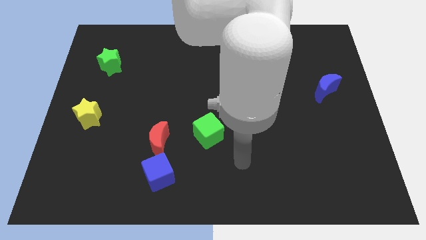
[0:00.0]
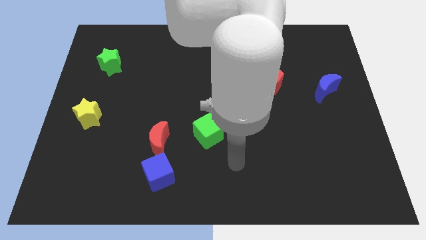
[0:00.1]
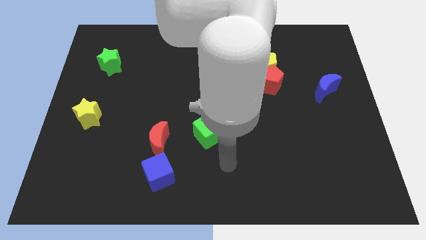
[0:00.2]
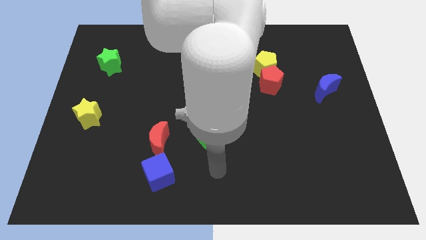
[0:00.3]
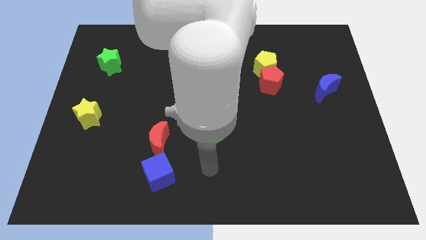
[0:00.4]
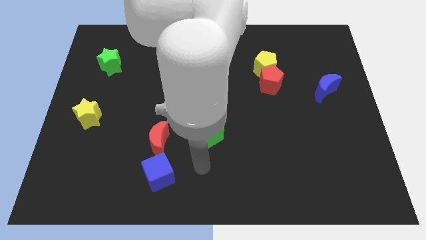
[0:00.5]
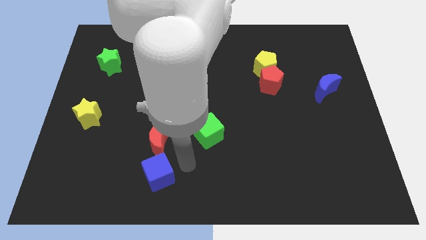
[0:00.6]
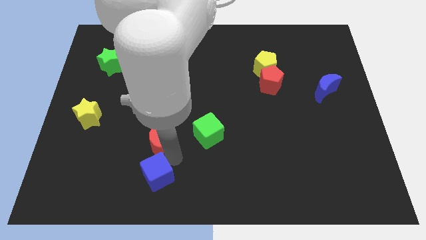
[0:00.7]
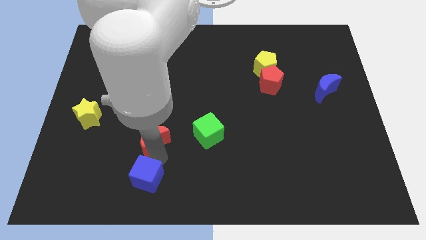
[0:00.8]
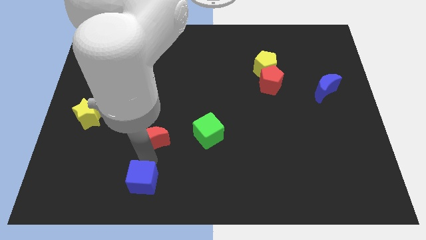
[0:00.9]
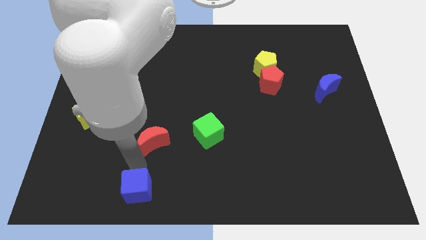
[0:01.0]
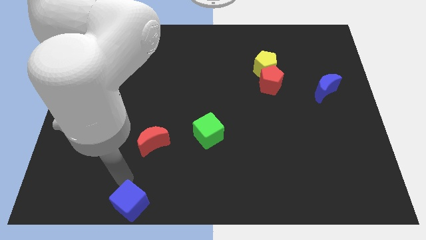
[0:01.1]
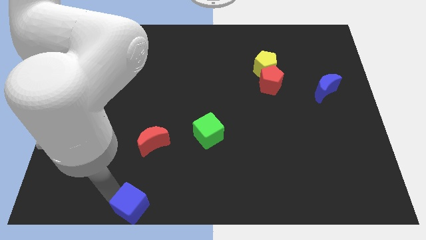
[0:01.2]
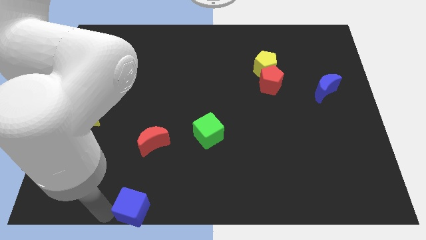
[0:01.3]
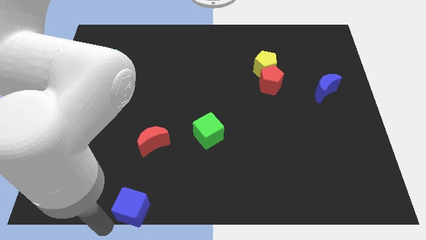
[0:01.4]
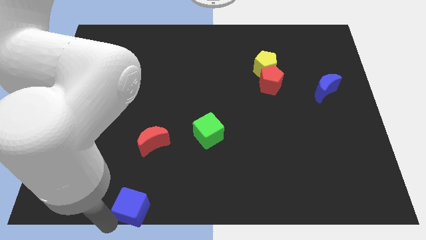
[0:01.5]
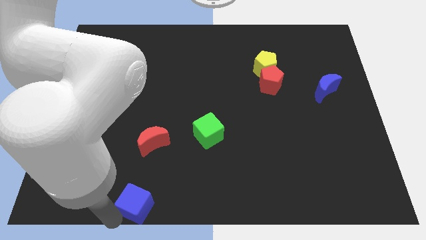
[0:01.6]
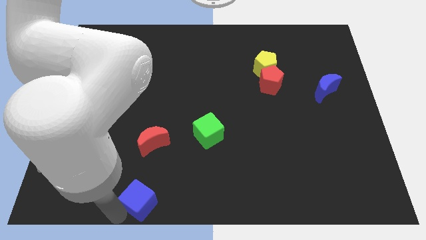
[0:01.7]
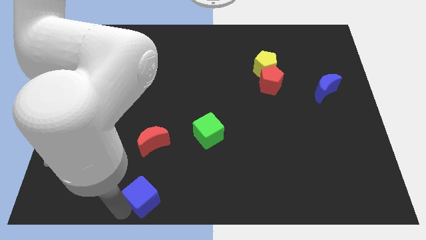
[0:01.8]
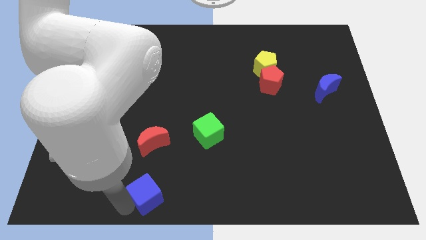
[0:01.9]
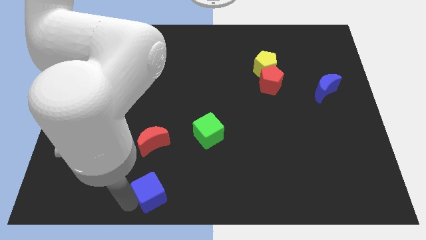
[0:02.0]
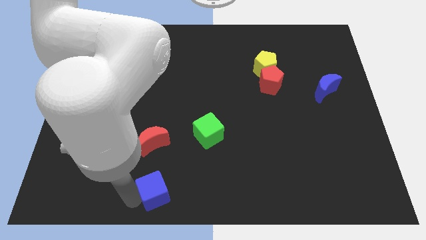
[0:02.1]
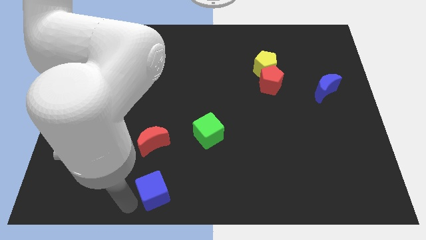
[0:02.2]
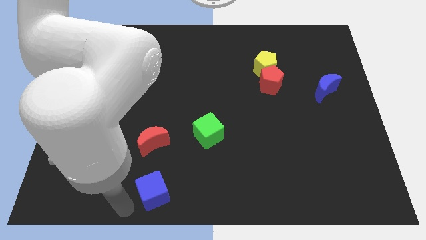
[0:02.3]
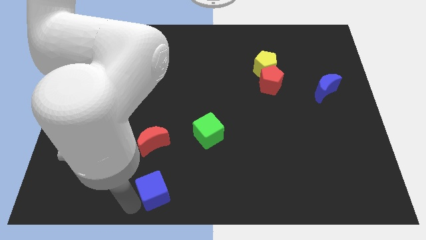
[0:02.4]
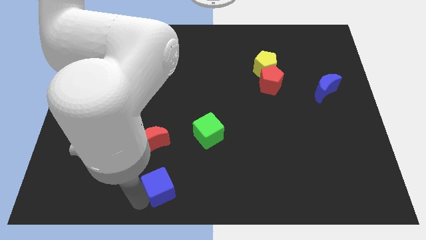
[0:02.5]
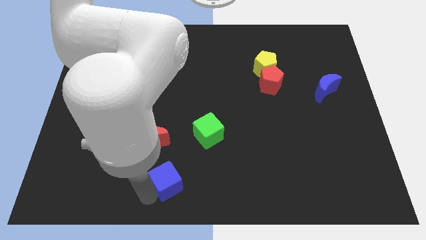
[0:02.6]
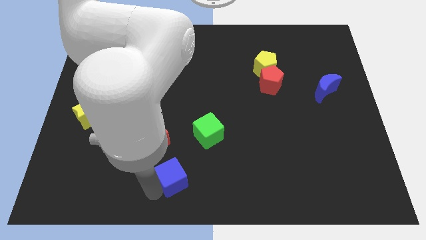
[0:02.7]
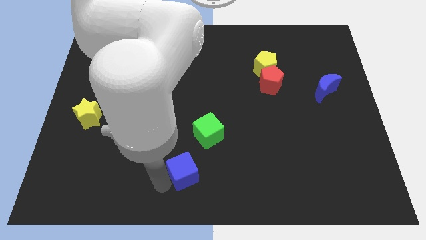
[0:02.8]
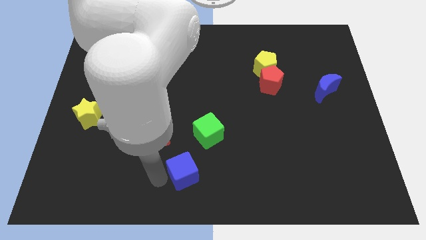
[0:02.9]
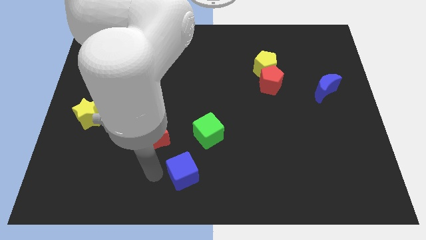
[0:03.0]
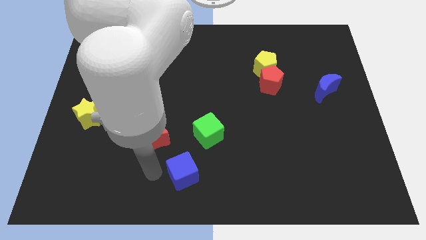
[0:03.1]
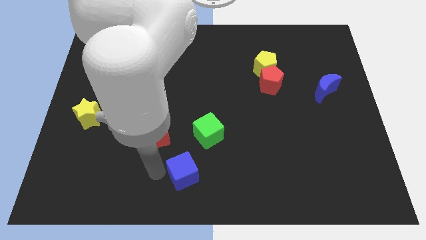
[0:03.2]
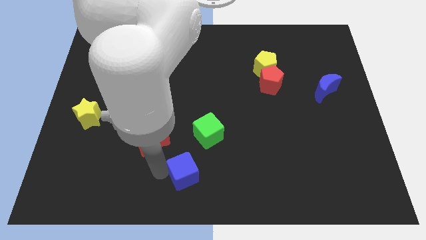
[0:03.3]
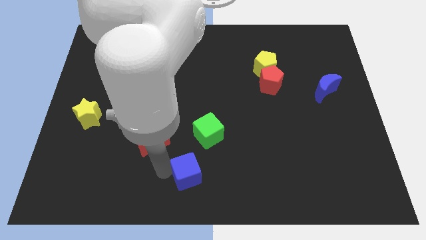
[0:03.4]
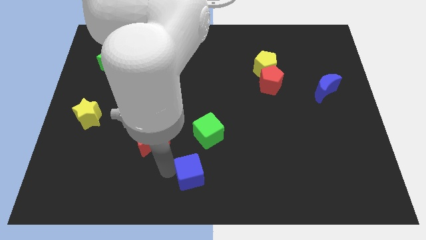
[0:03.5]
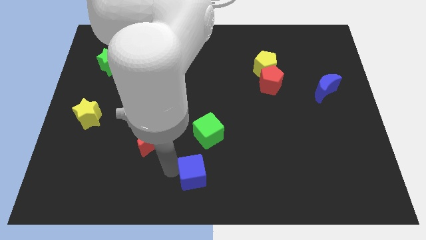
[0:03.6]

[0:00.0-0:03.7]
slightly push the blue cube right

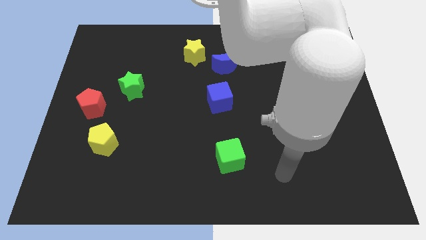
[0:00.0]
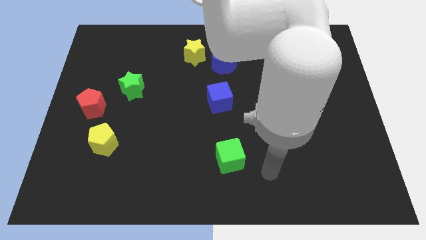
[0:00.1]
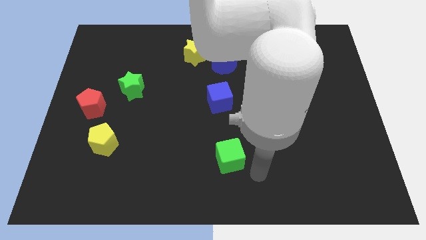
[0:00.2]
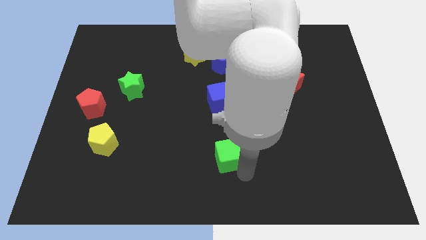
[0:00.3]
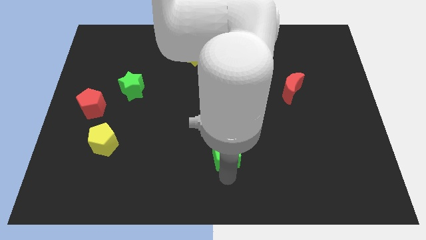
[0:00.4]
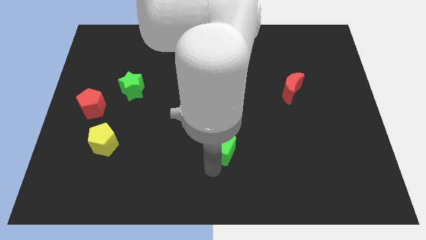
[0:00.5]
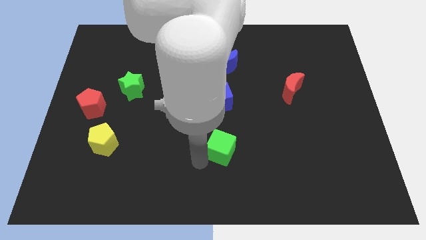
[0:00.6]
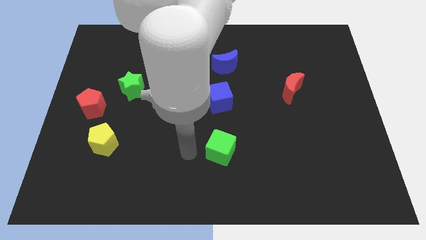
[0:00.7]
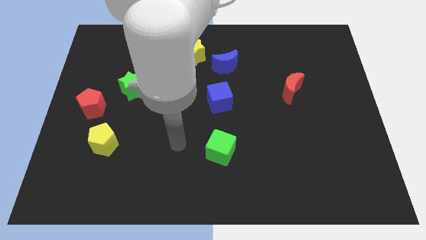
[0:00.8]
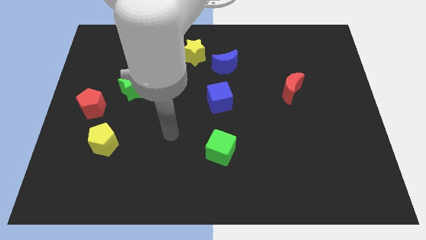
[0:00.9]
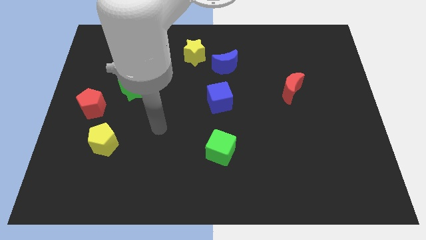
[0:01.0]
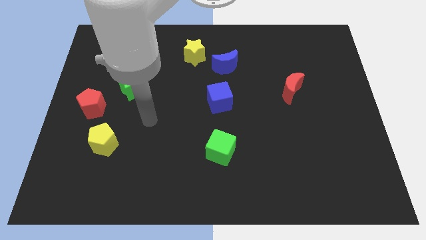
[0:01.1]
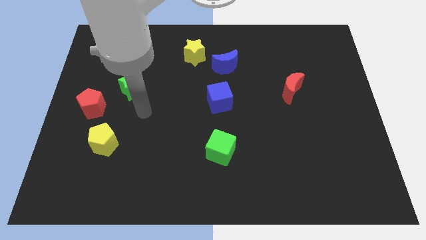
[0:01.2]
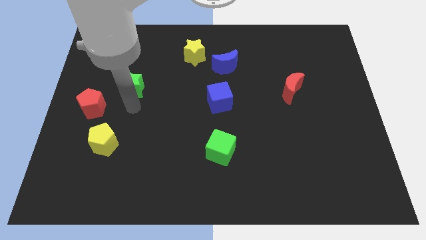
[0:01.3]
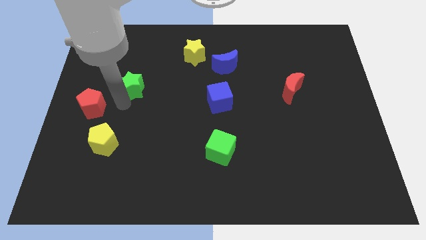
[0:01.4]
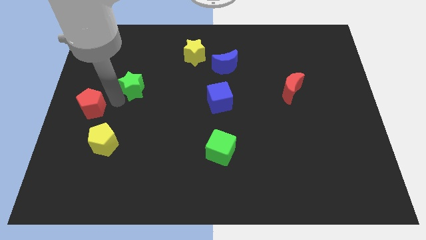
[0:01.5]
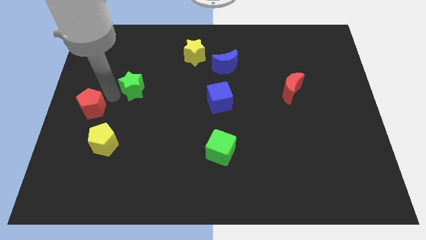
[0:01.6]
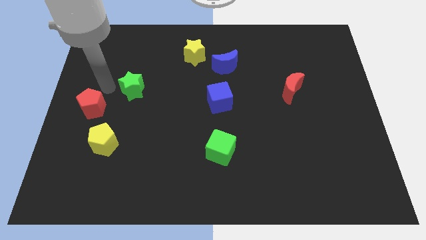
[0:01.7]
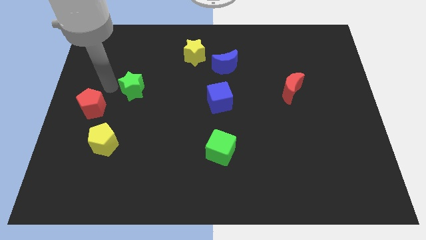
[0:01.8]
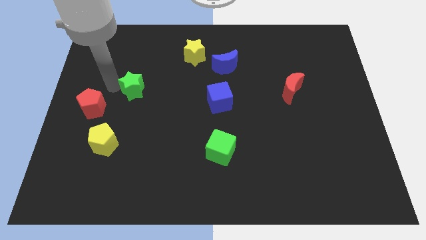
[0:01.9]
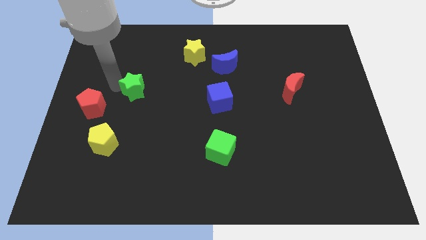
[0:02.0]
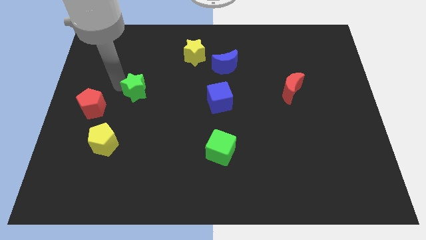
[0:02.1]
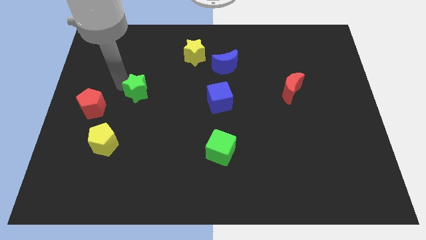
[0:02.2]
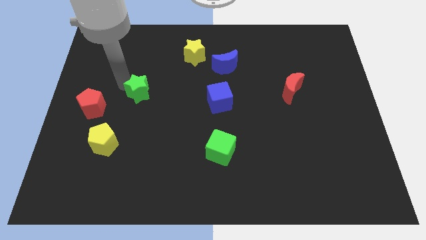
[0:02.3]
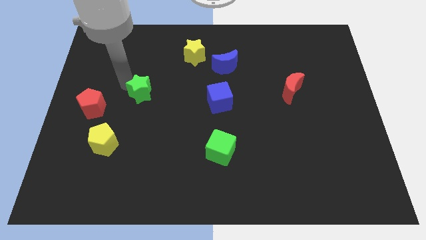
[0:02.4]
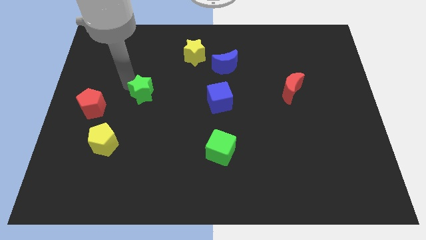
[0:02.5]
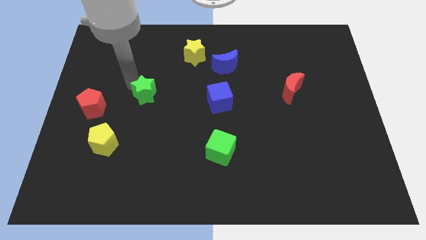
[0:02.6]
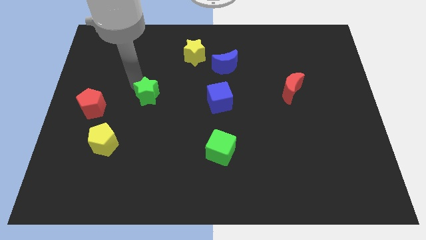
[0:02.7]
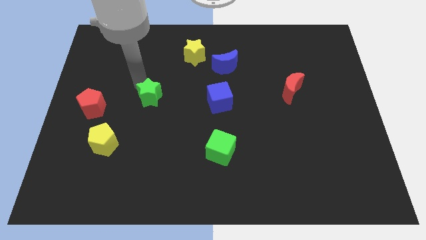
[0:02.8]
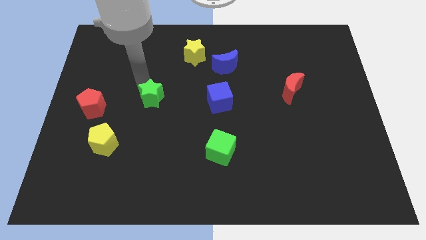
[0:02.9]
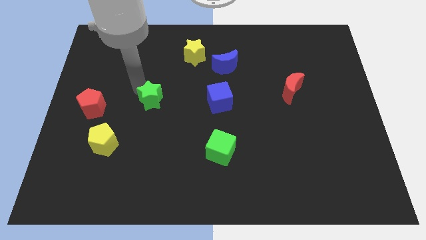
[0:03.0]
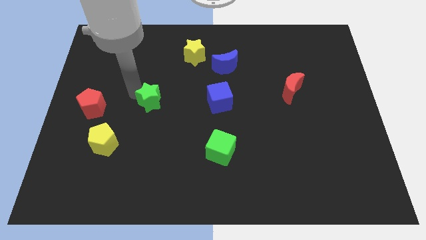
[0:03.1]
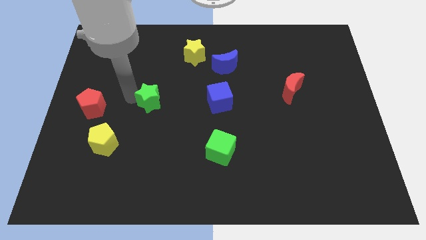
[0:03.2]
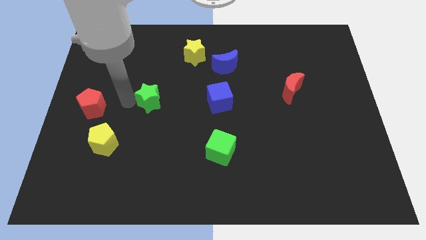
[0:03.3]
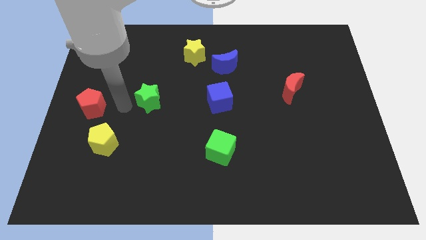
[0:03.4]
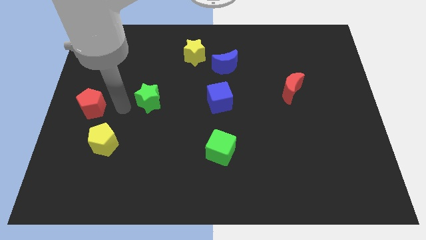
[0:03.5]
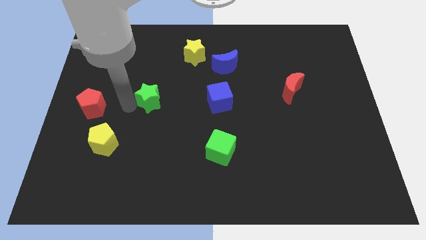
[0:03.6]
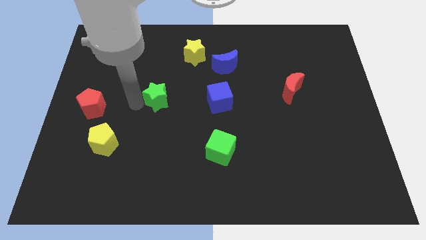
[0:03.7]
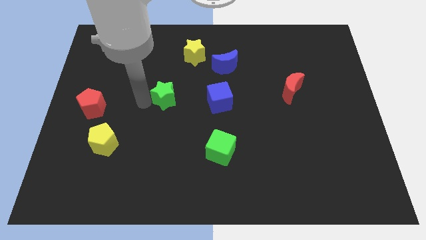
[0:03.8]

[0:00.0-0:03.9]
slide the green star to the right a bit

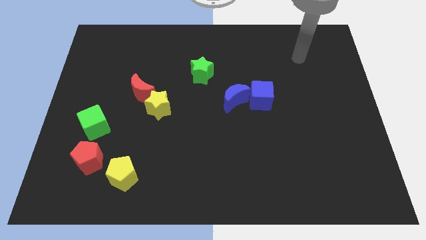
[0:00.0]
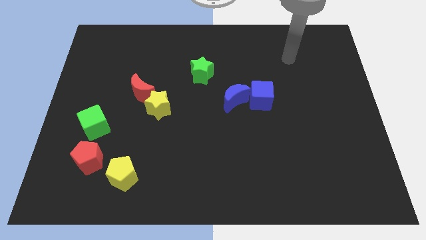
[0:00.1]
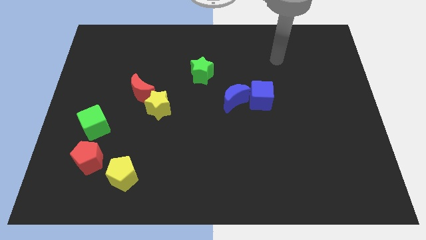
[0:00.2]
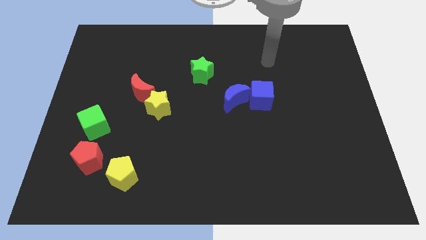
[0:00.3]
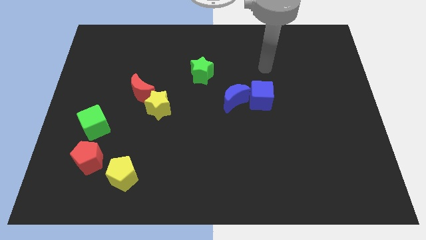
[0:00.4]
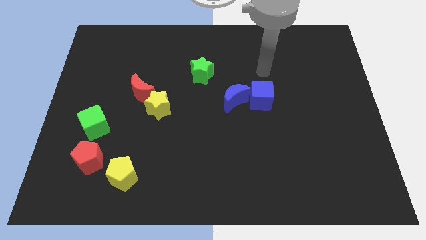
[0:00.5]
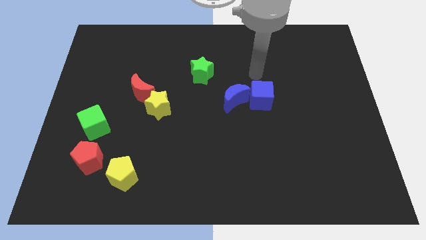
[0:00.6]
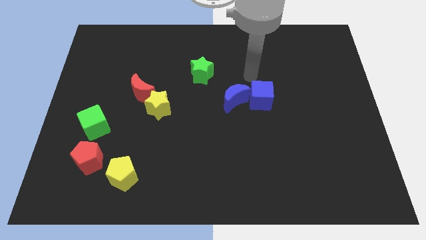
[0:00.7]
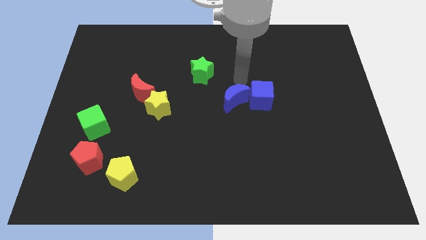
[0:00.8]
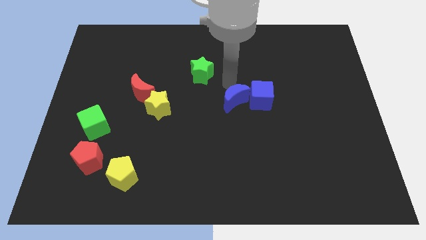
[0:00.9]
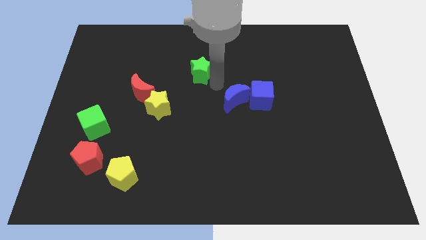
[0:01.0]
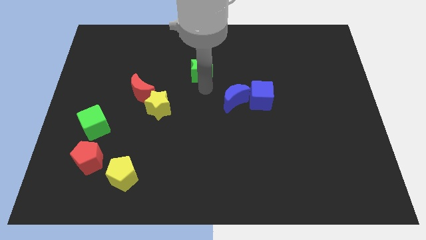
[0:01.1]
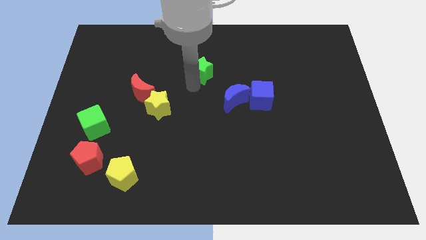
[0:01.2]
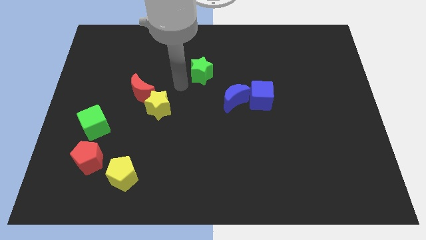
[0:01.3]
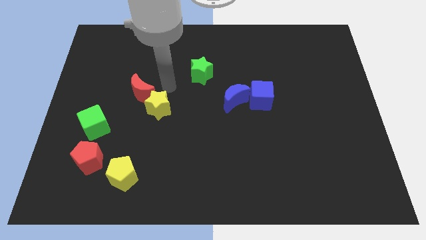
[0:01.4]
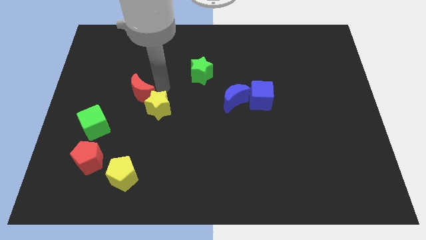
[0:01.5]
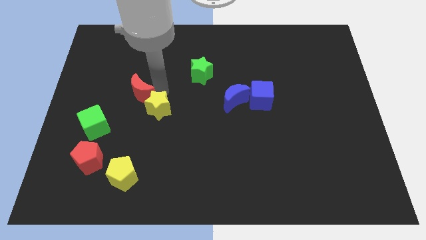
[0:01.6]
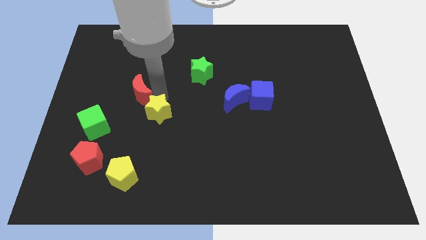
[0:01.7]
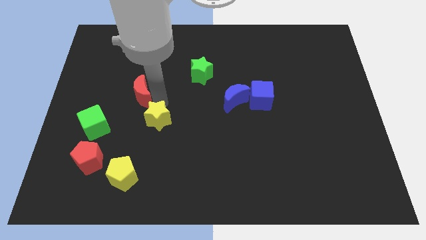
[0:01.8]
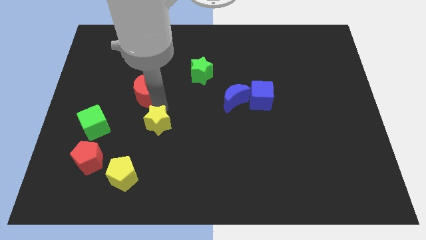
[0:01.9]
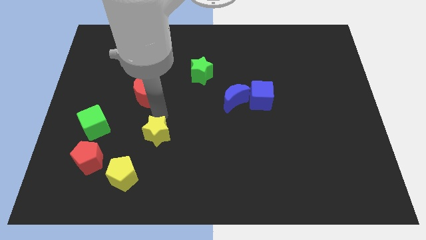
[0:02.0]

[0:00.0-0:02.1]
move the yellow star downwards a bit
